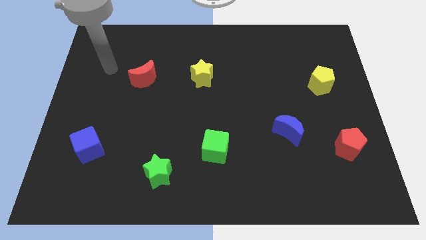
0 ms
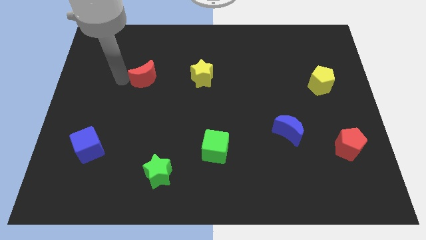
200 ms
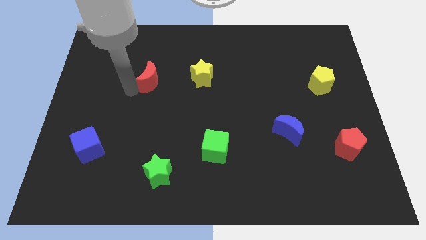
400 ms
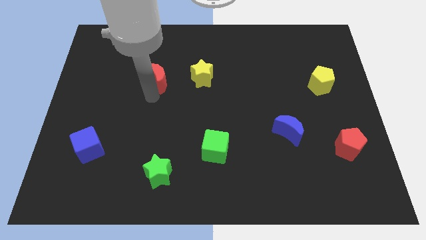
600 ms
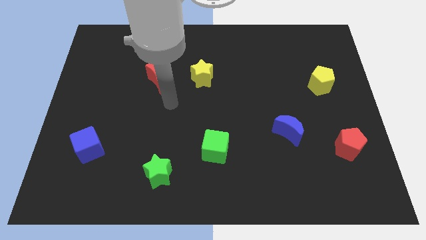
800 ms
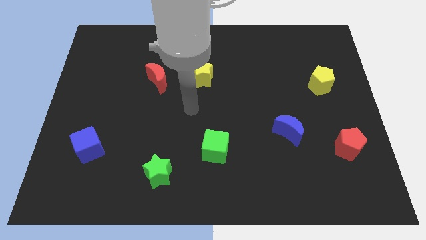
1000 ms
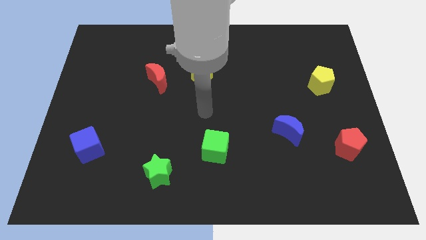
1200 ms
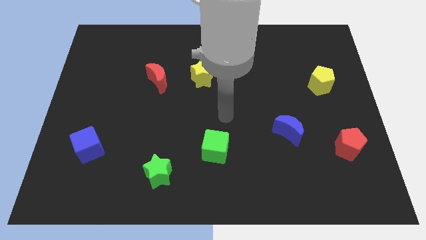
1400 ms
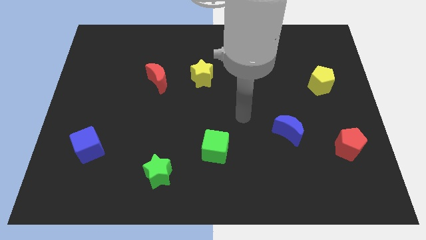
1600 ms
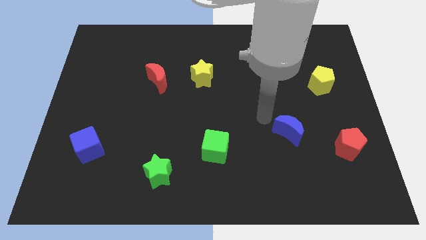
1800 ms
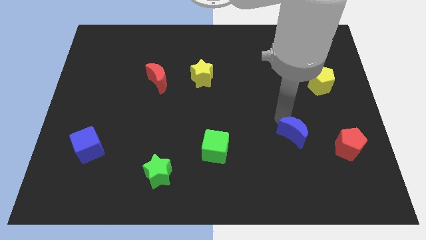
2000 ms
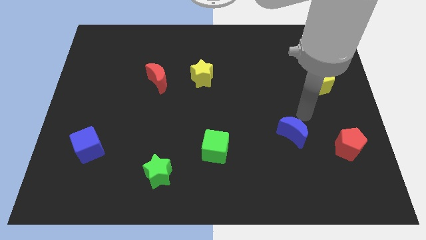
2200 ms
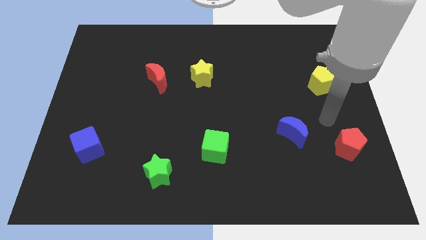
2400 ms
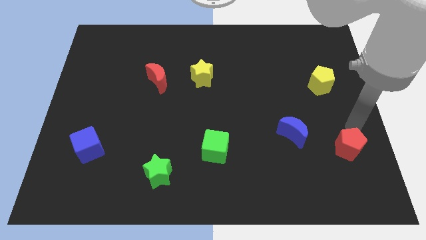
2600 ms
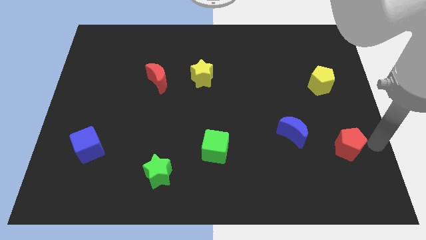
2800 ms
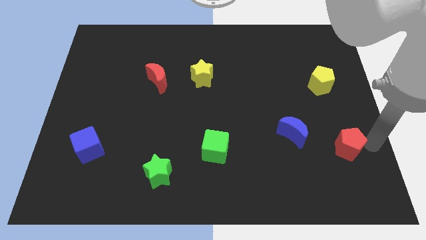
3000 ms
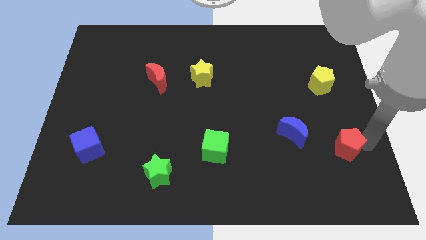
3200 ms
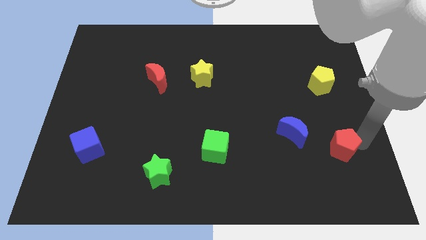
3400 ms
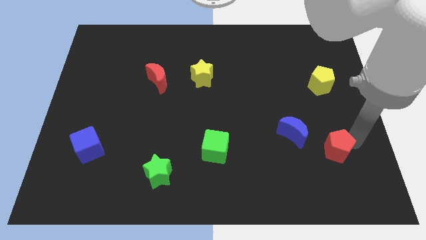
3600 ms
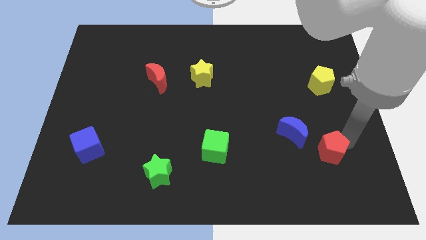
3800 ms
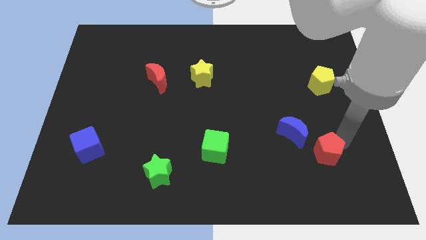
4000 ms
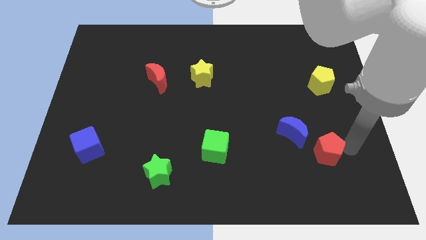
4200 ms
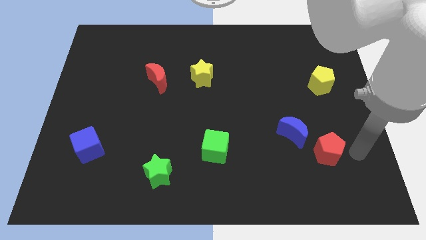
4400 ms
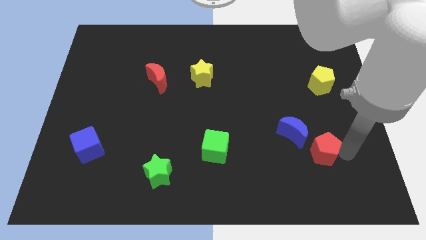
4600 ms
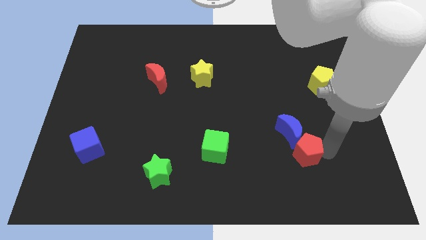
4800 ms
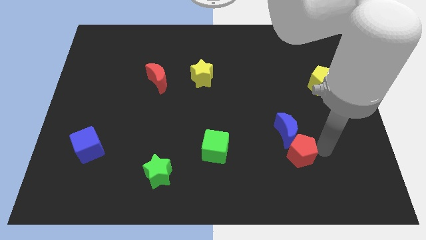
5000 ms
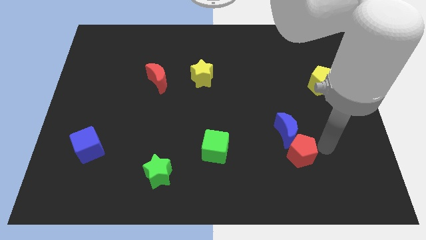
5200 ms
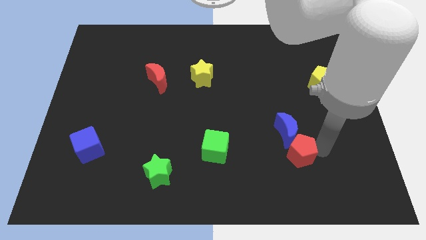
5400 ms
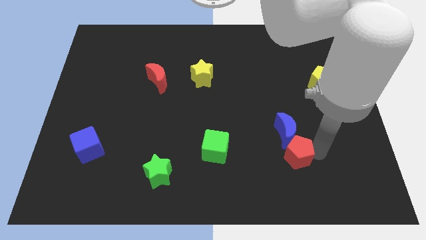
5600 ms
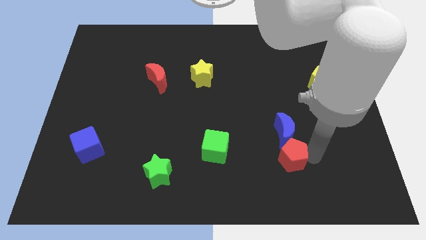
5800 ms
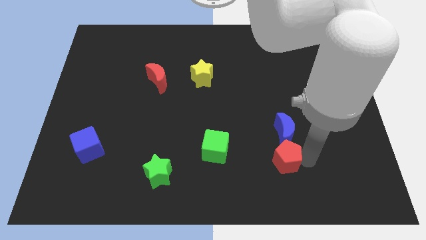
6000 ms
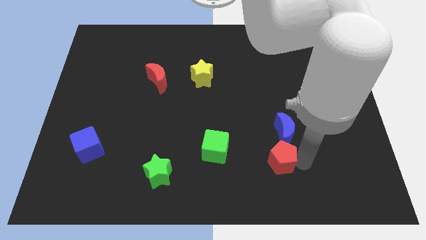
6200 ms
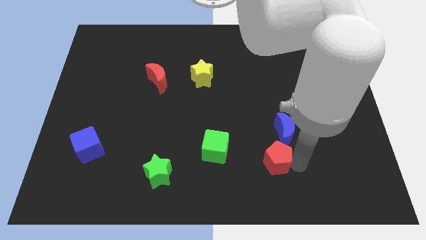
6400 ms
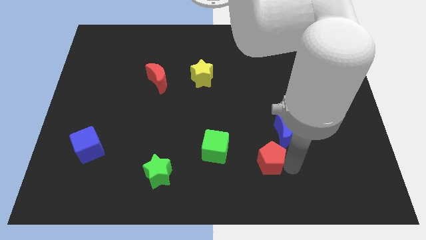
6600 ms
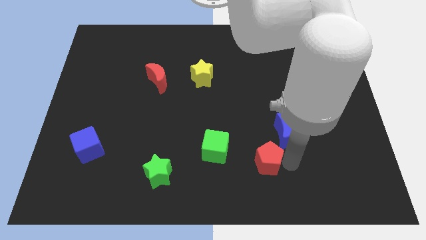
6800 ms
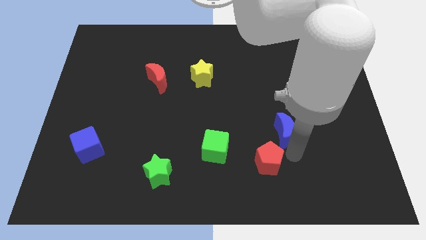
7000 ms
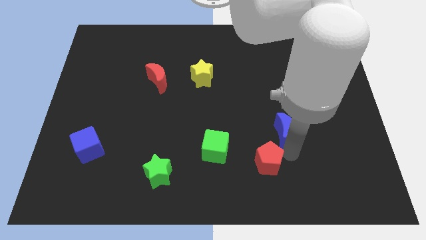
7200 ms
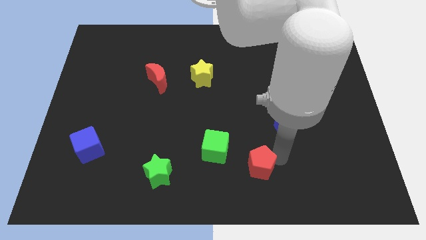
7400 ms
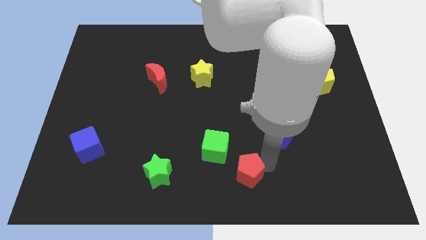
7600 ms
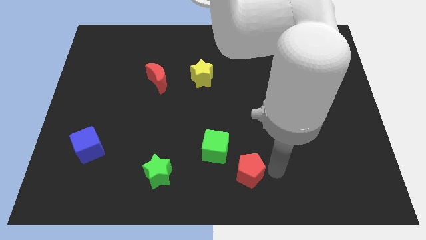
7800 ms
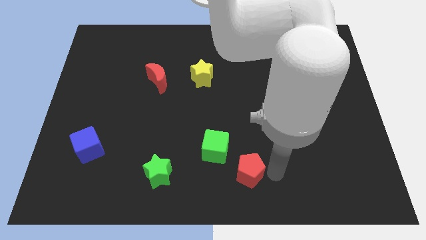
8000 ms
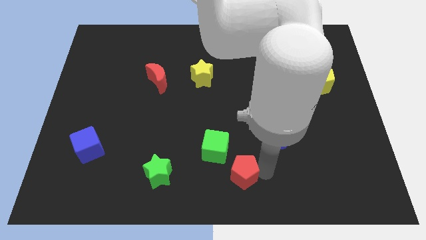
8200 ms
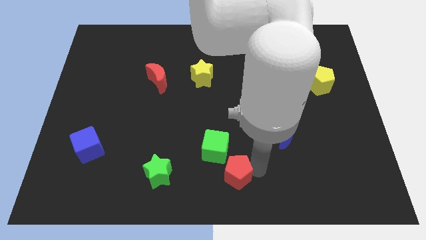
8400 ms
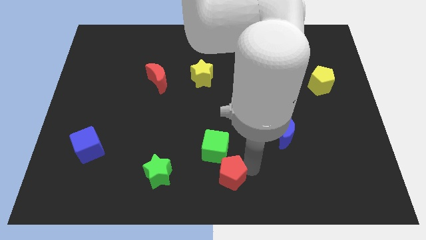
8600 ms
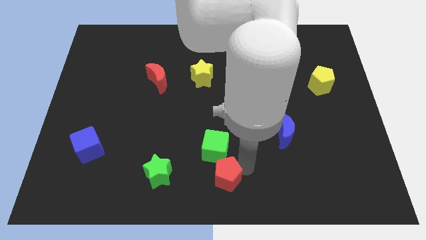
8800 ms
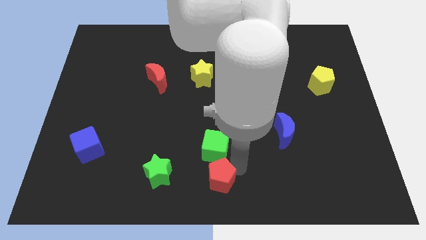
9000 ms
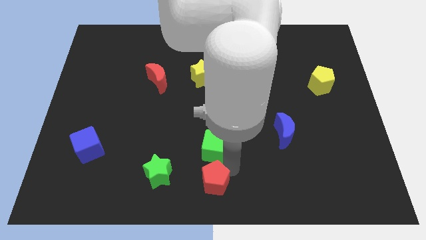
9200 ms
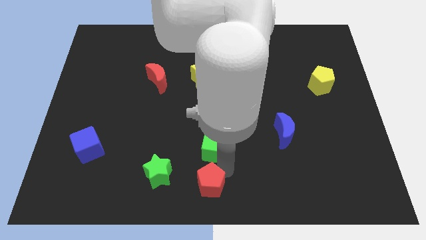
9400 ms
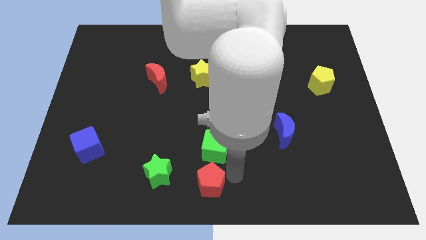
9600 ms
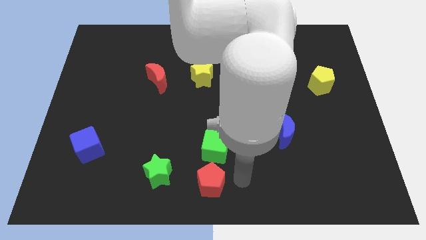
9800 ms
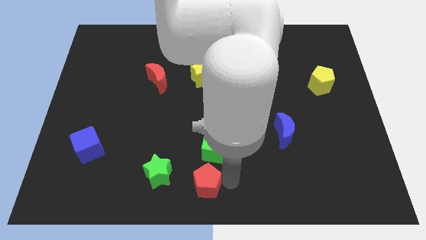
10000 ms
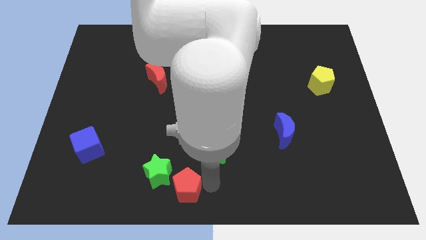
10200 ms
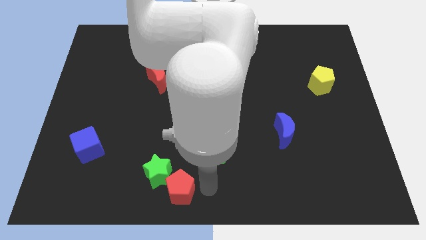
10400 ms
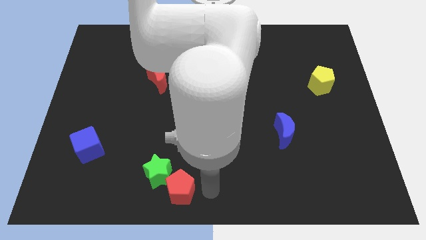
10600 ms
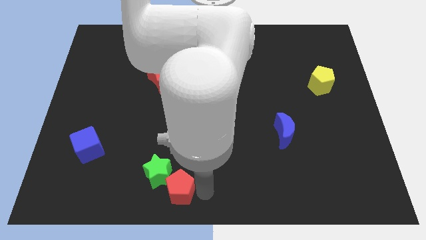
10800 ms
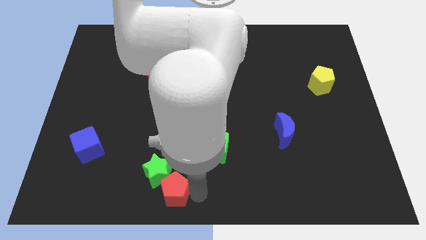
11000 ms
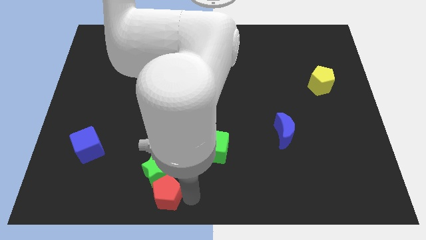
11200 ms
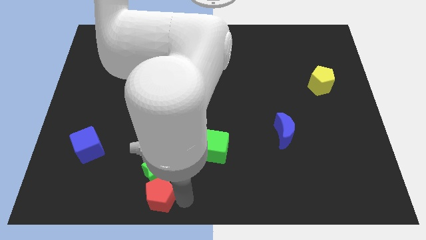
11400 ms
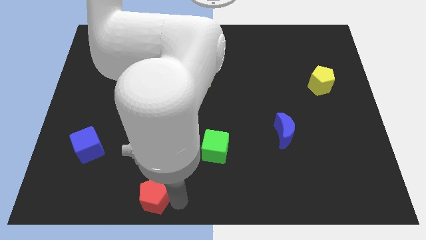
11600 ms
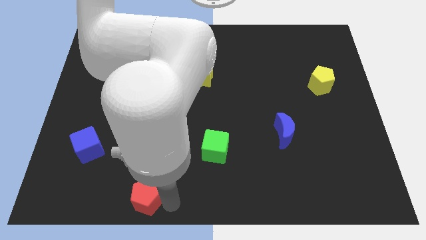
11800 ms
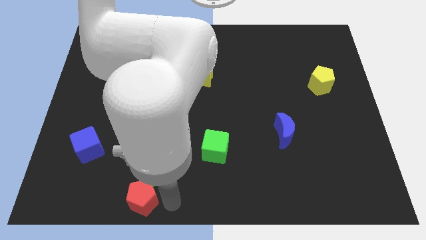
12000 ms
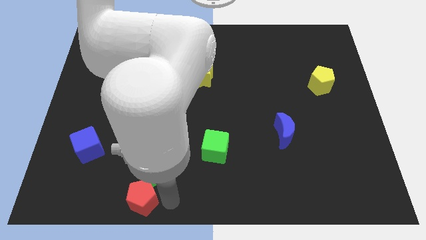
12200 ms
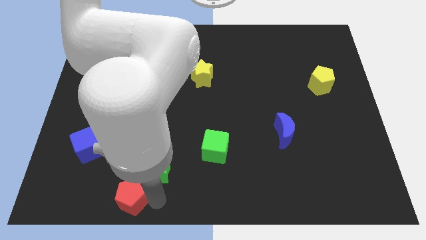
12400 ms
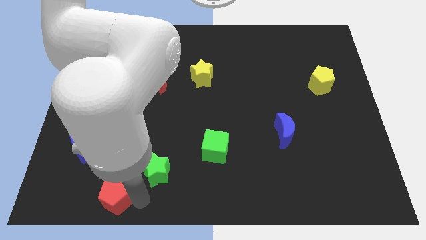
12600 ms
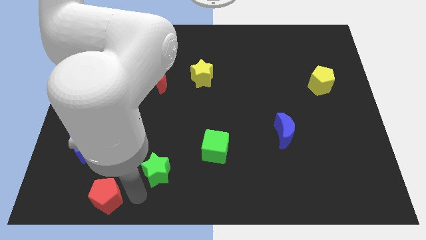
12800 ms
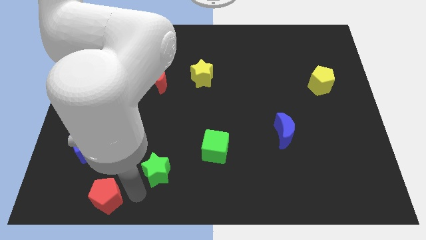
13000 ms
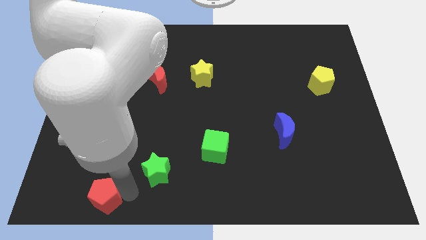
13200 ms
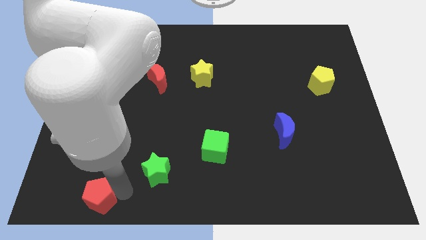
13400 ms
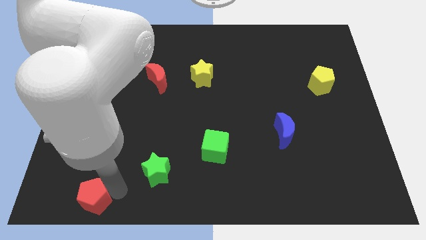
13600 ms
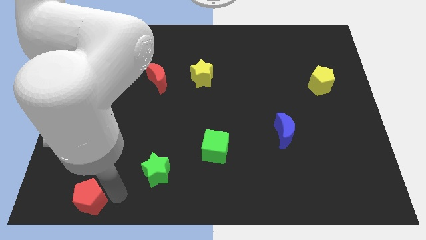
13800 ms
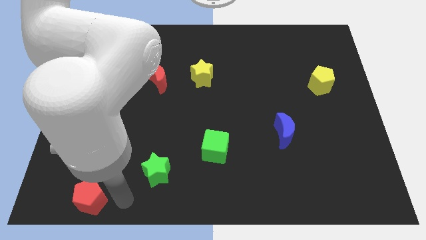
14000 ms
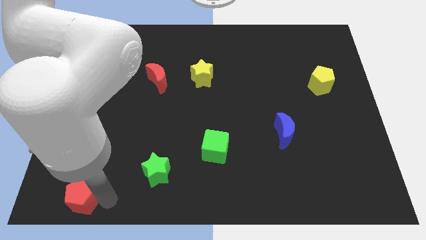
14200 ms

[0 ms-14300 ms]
slide the red pentagon to the lower left corner

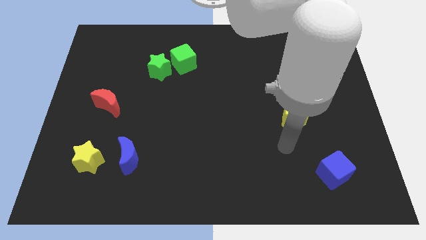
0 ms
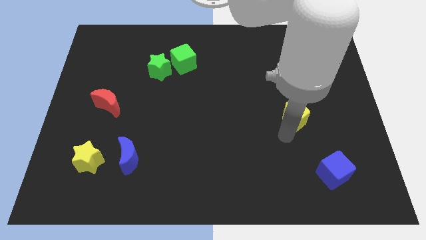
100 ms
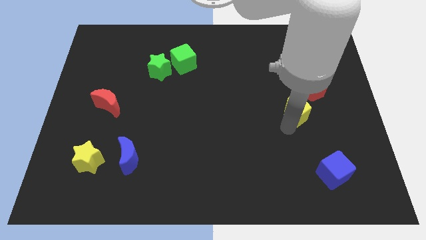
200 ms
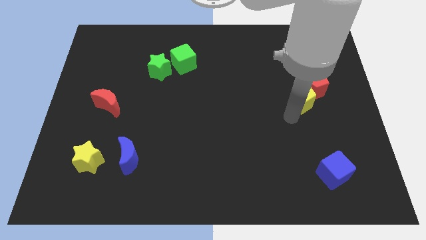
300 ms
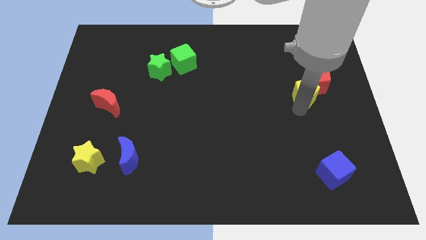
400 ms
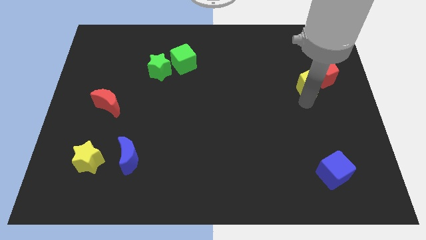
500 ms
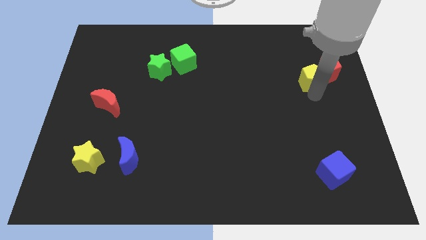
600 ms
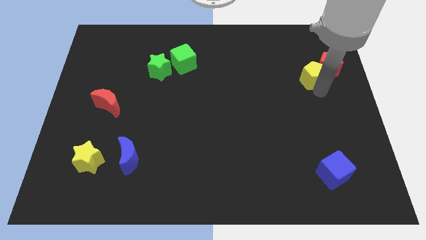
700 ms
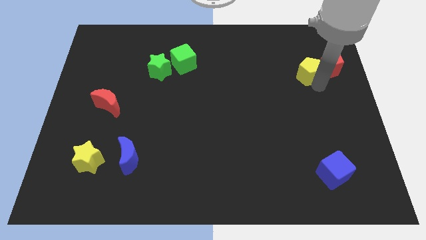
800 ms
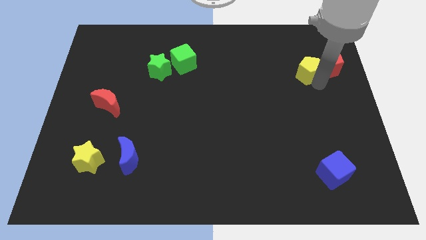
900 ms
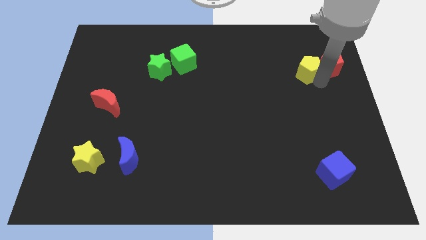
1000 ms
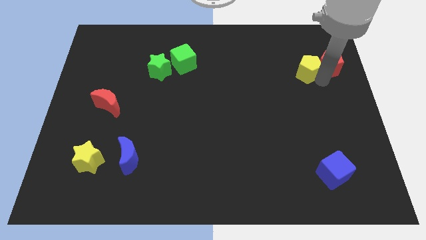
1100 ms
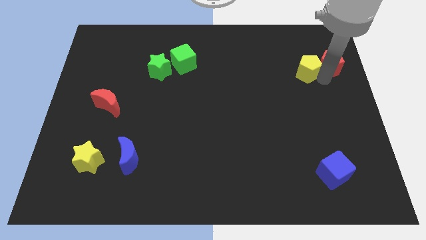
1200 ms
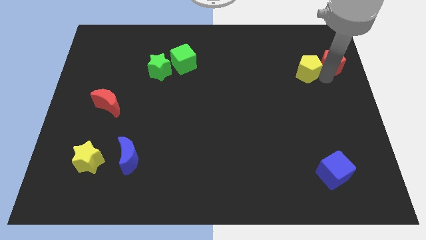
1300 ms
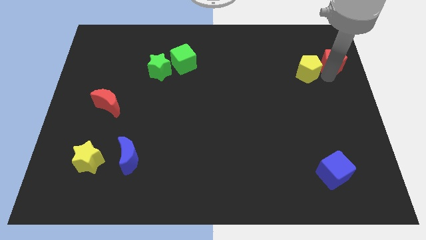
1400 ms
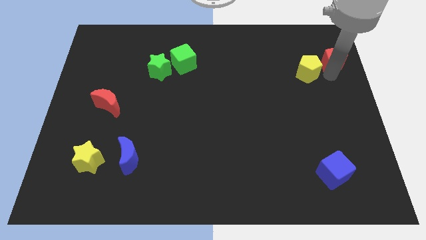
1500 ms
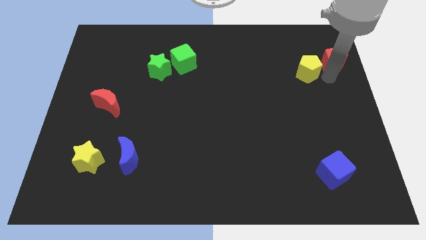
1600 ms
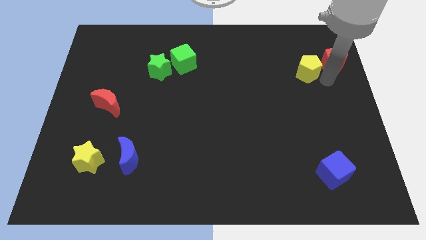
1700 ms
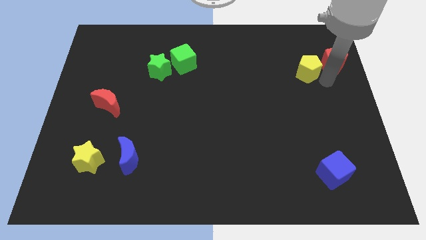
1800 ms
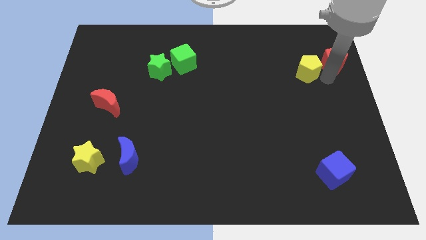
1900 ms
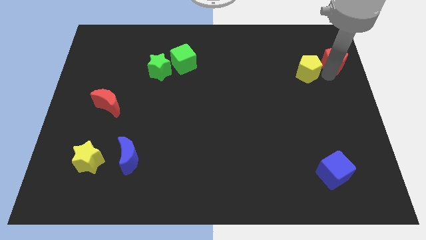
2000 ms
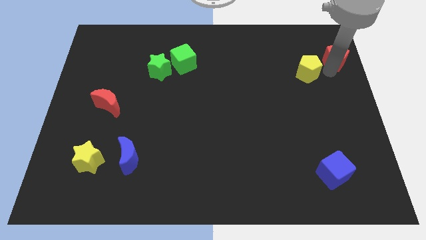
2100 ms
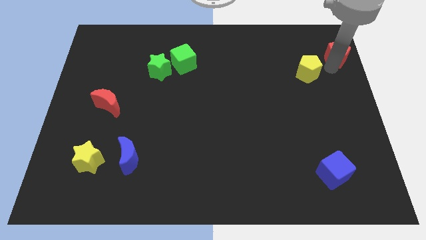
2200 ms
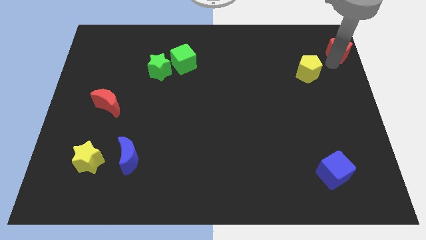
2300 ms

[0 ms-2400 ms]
push the red pentagon to the top right corner
